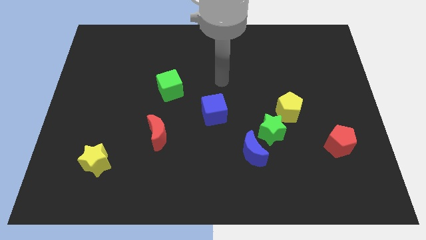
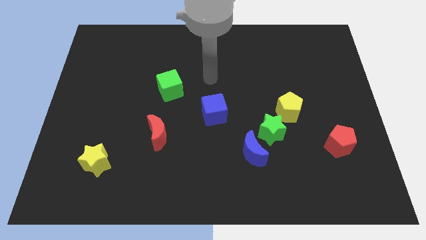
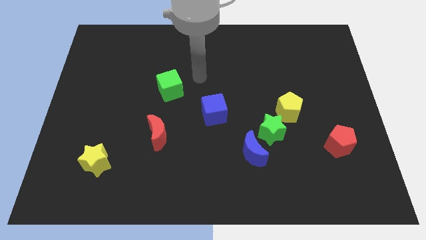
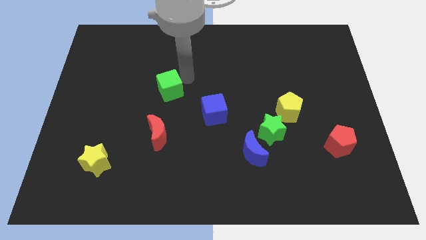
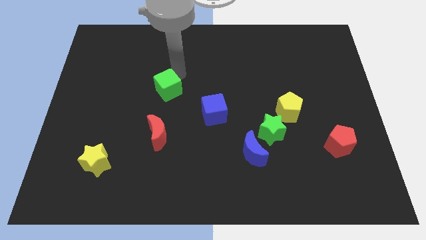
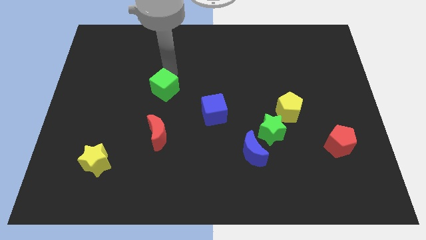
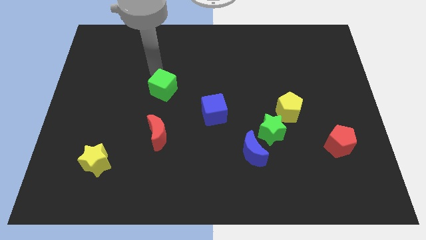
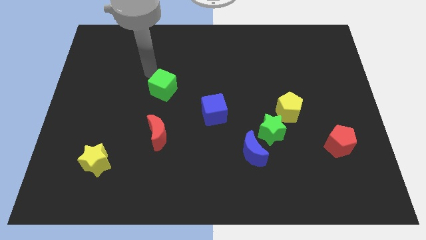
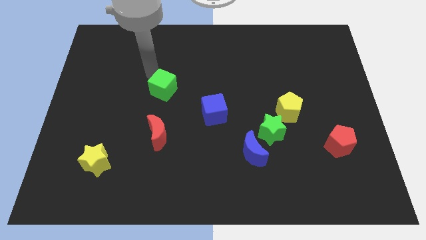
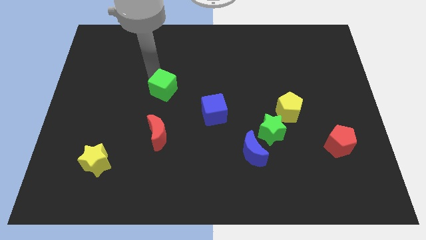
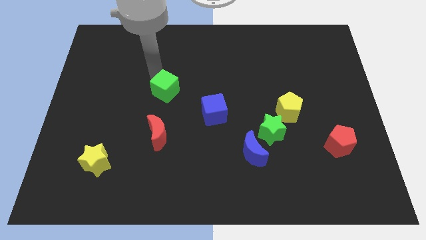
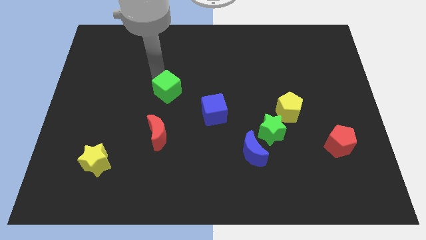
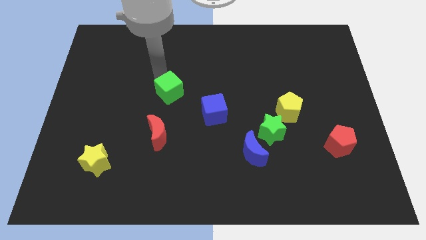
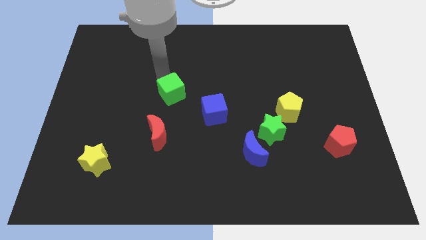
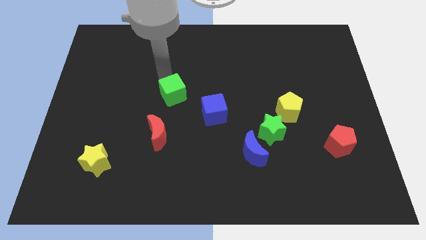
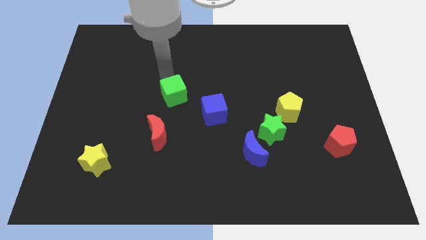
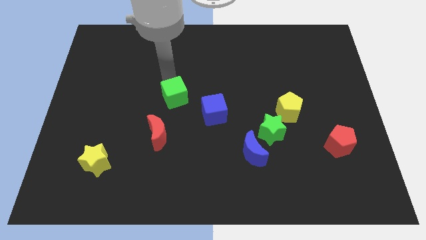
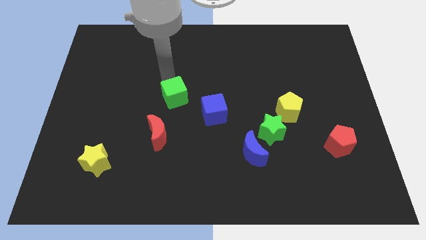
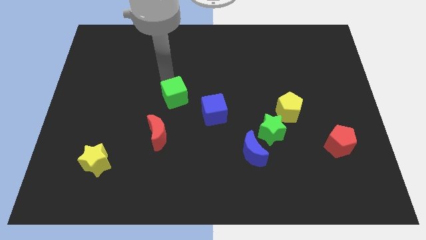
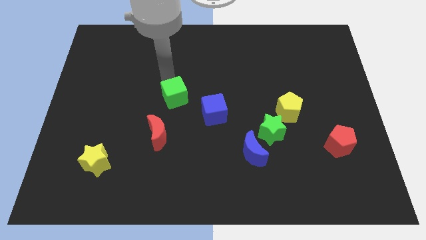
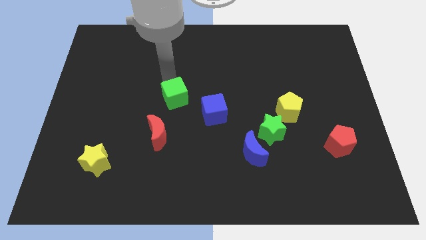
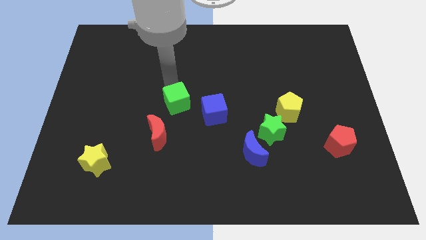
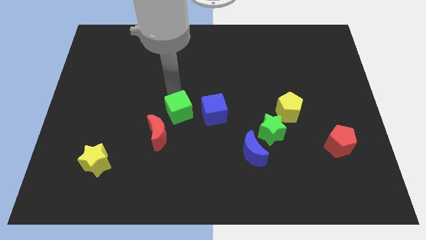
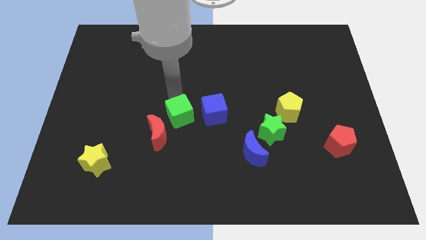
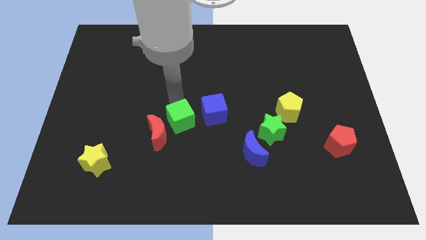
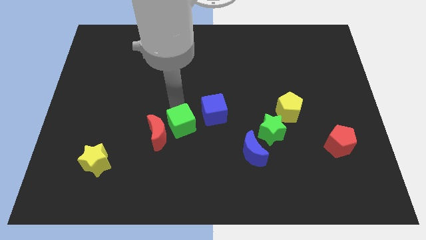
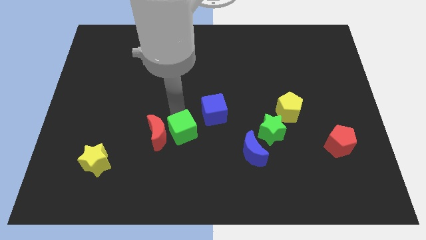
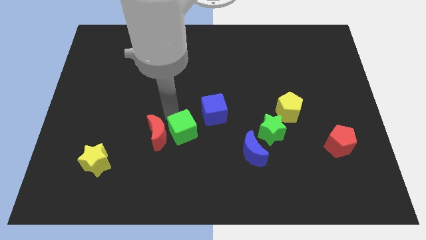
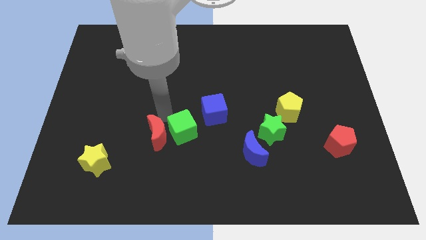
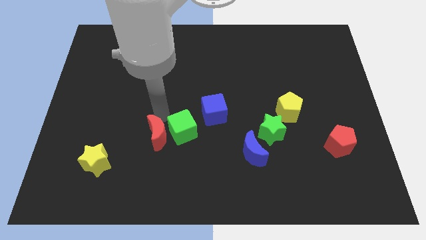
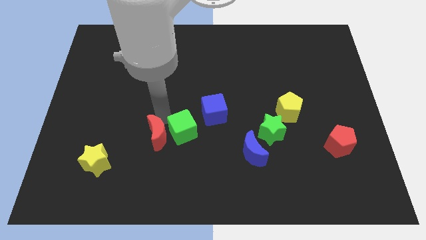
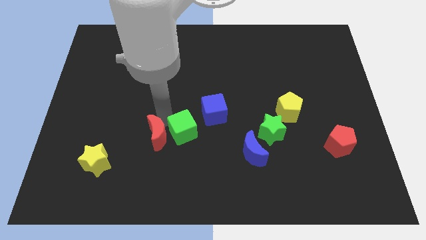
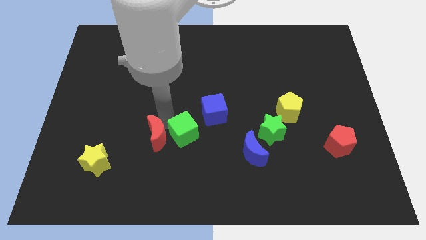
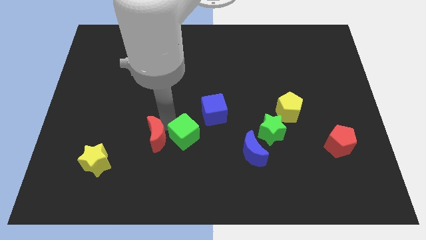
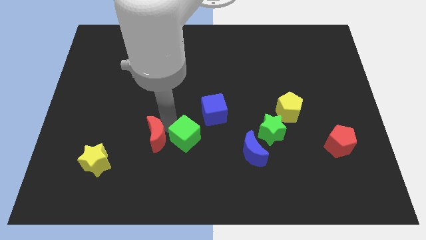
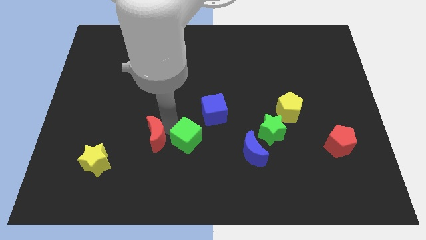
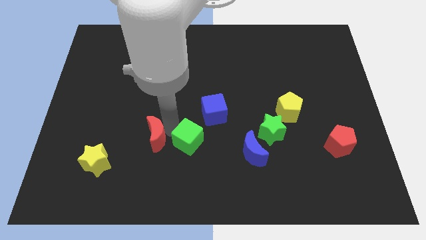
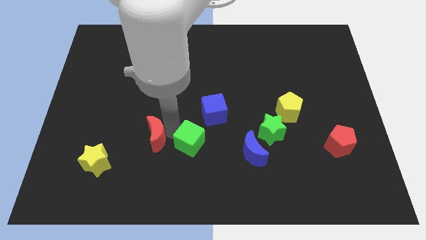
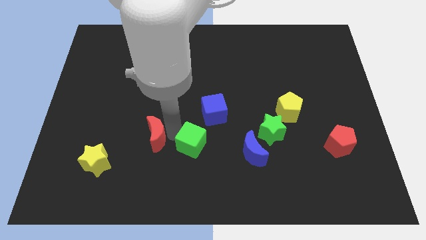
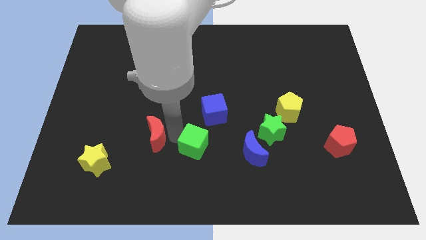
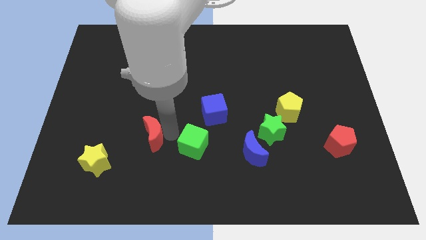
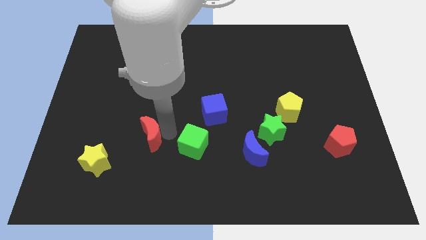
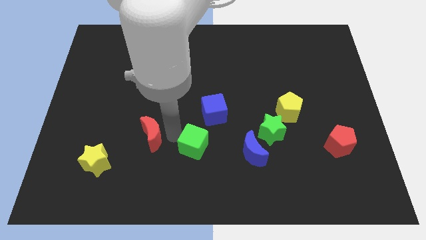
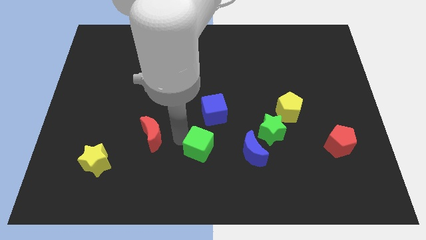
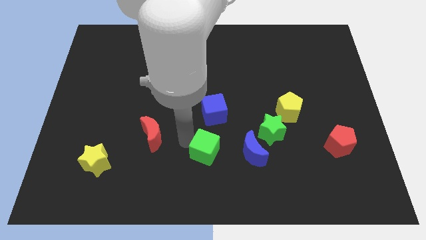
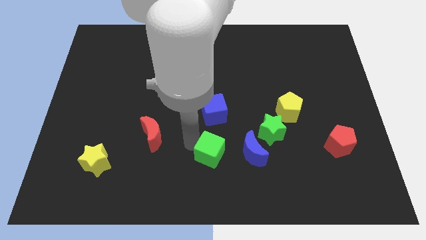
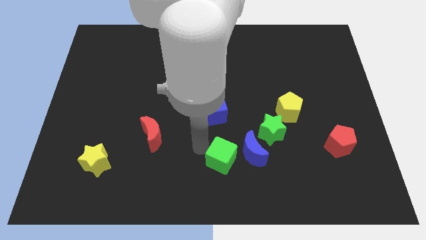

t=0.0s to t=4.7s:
push the green cube diagonally downwards and right

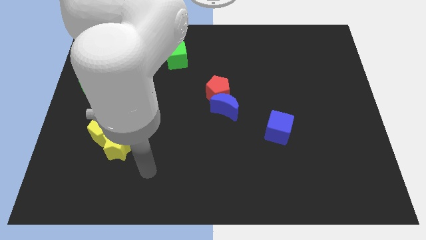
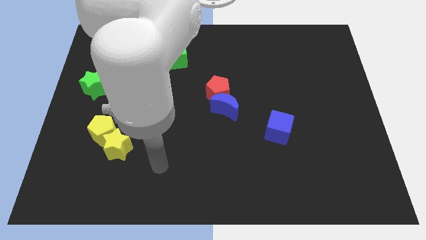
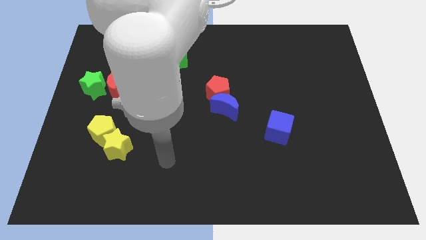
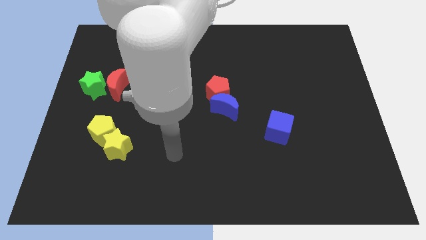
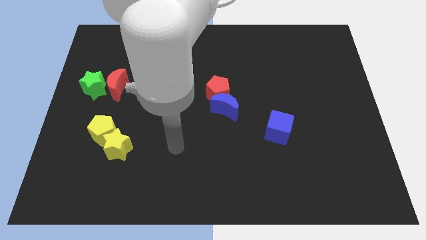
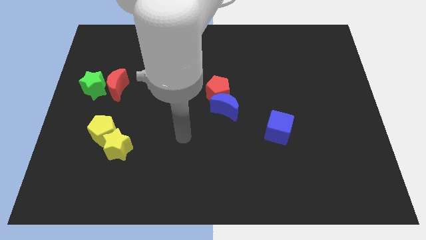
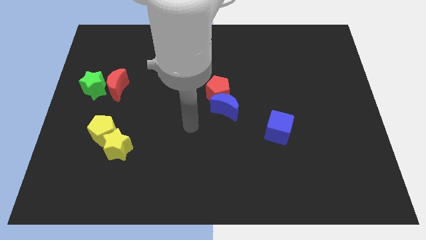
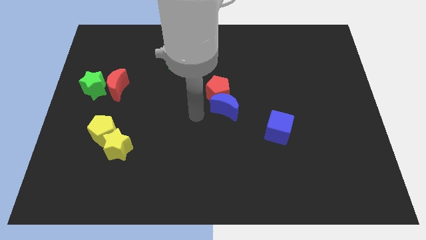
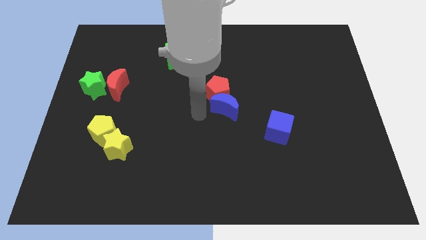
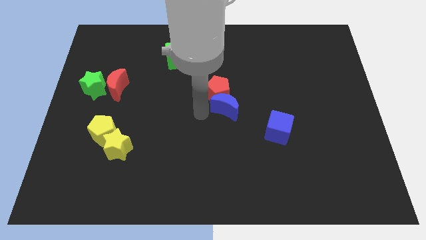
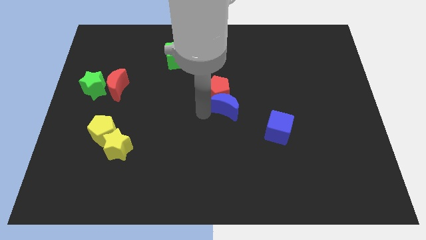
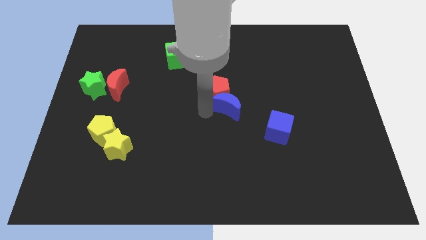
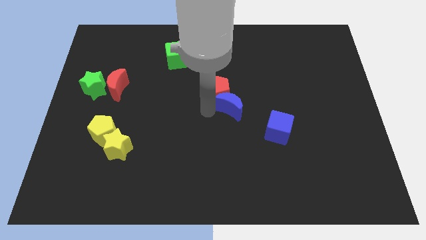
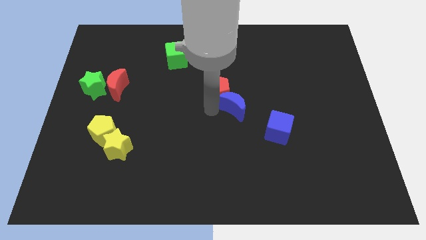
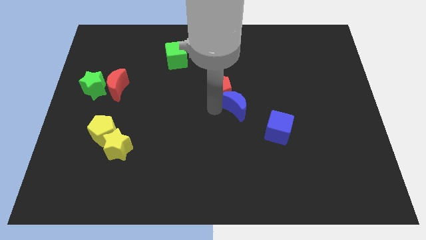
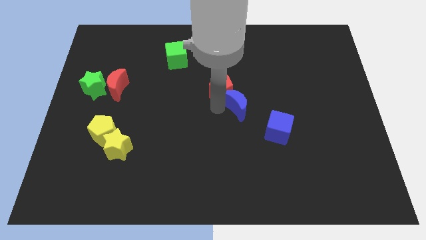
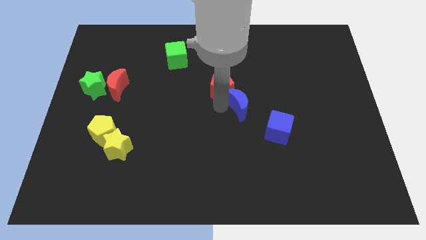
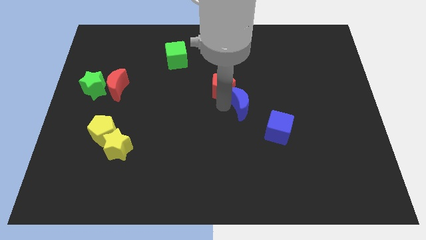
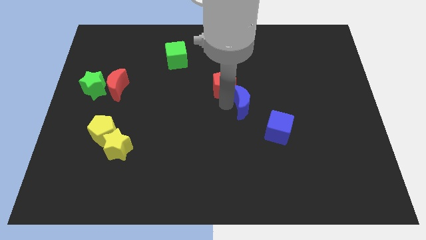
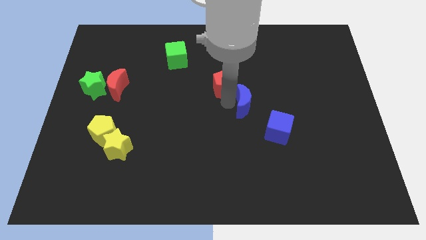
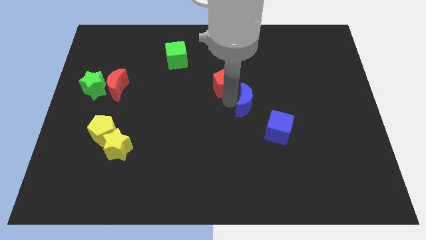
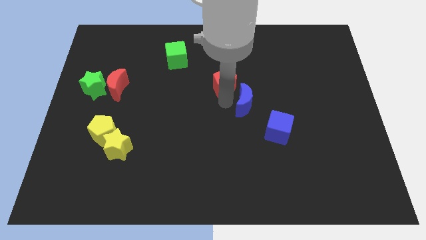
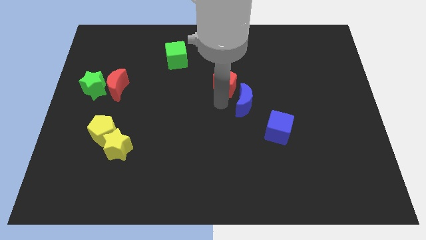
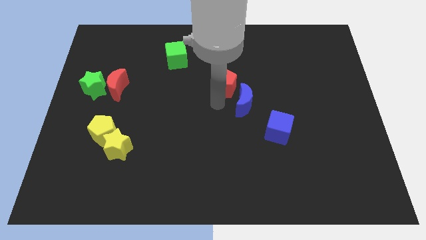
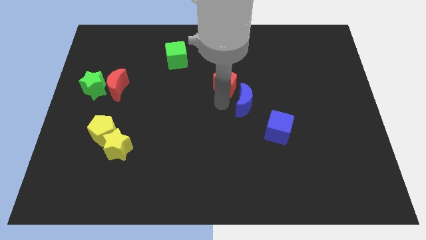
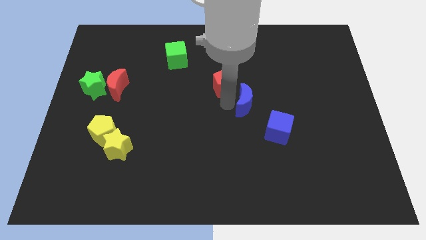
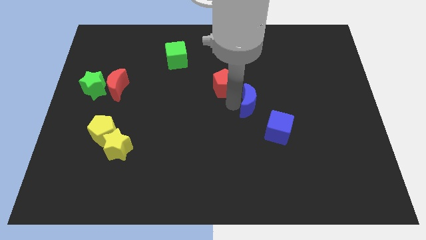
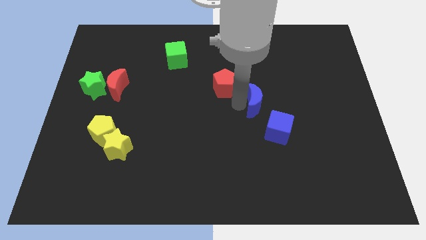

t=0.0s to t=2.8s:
slide the blue moon right a little

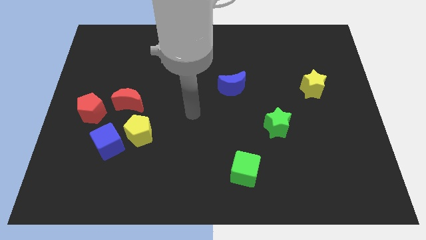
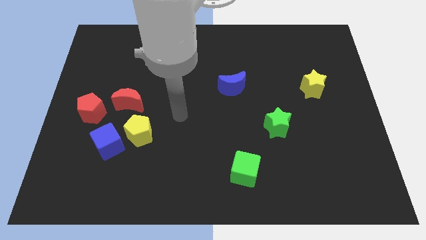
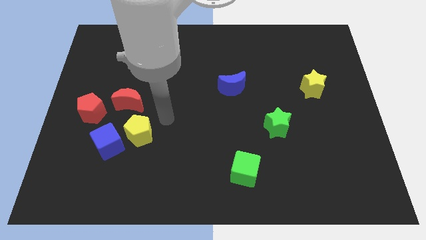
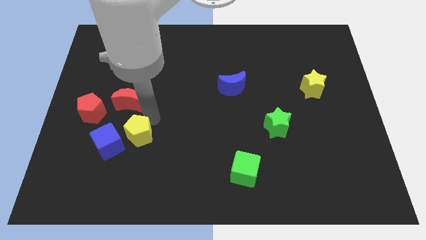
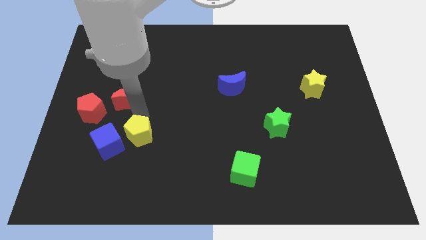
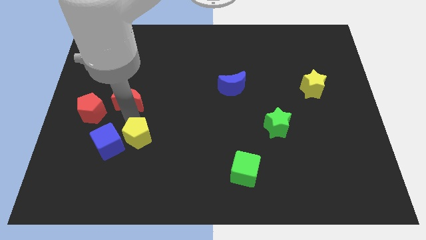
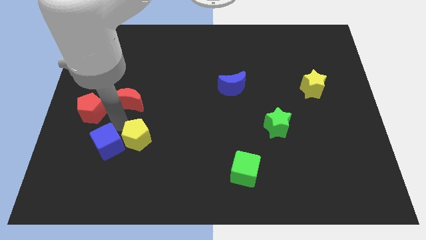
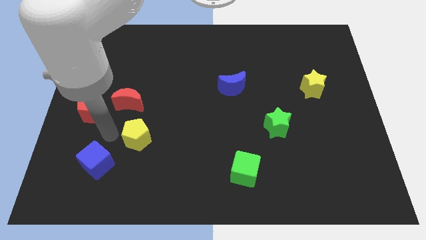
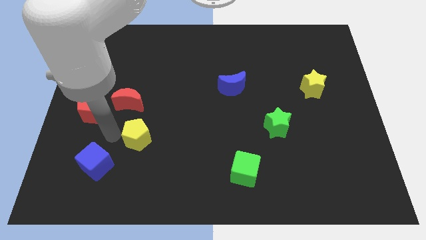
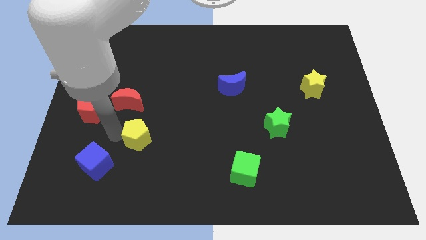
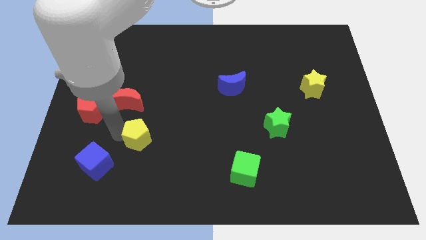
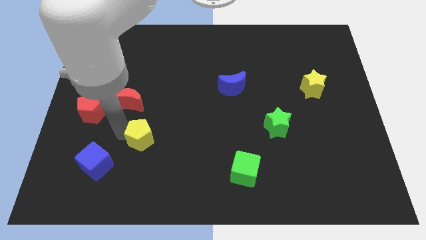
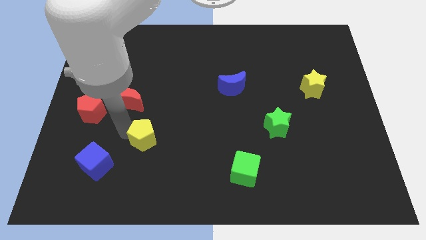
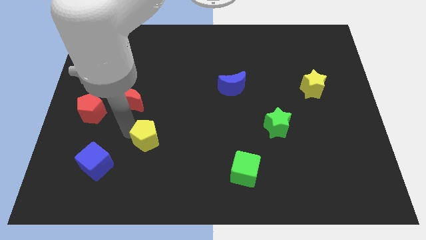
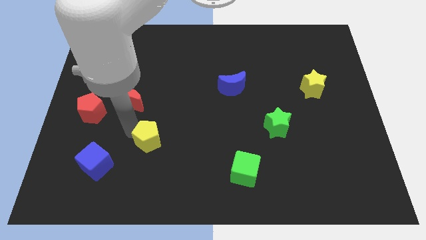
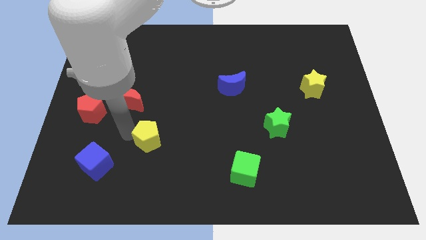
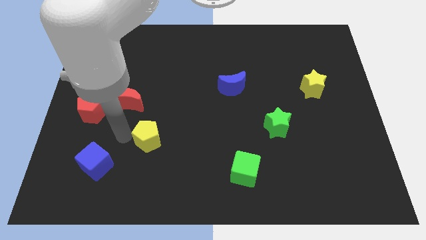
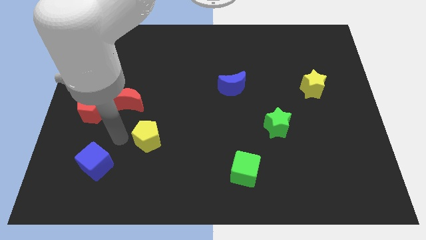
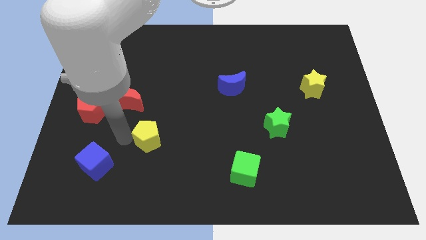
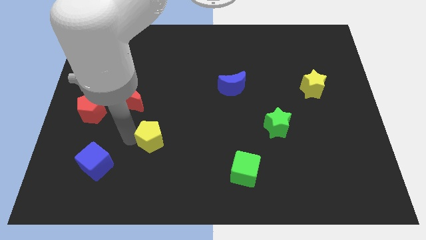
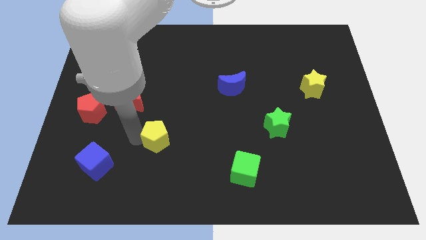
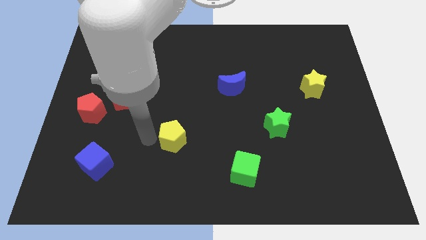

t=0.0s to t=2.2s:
push the yellow pentagon to the right a little bit
